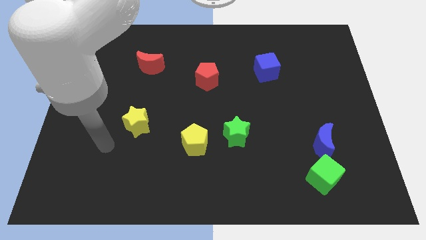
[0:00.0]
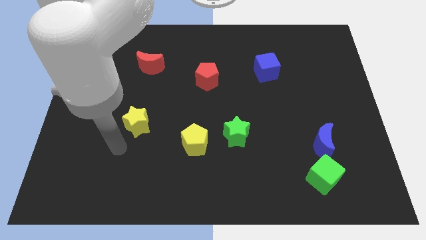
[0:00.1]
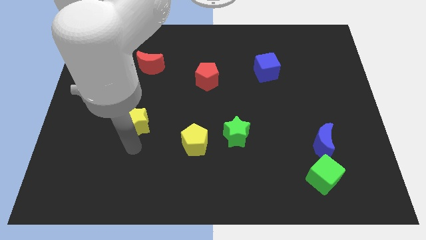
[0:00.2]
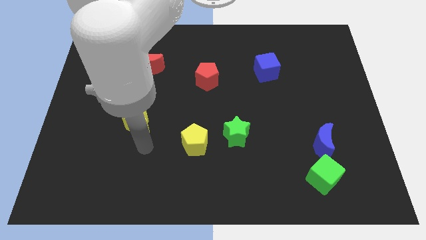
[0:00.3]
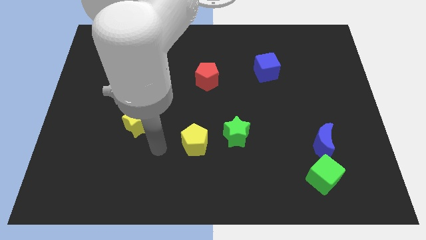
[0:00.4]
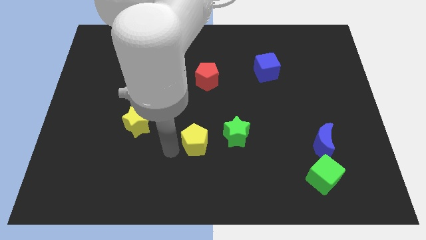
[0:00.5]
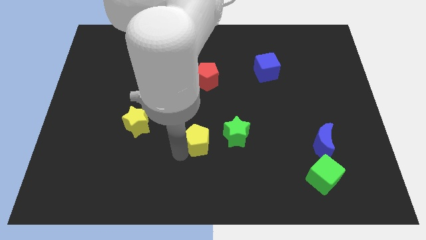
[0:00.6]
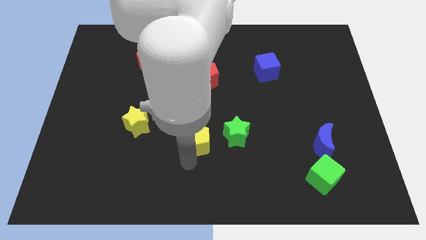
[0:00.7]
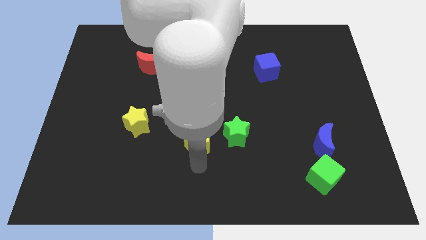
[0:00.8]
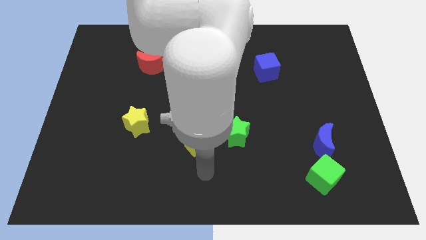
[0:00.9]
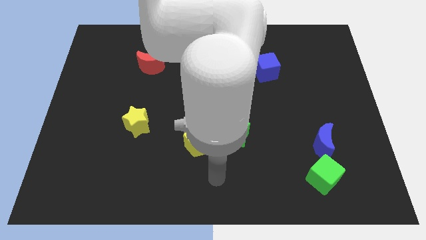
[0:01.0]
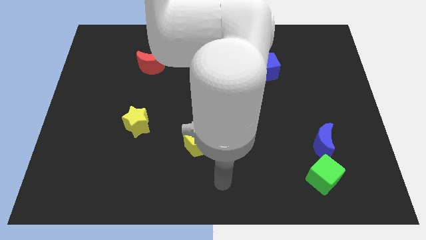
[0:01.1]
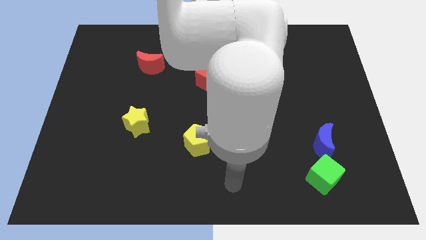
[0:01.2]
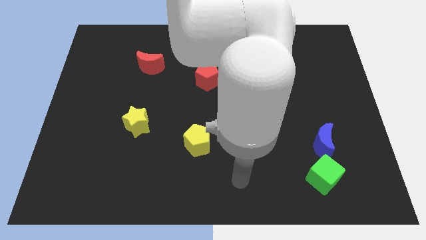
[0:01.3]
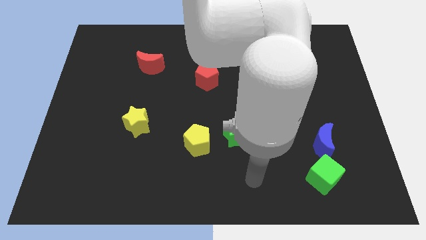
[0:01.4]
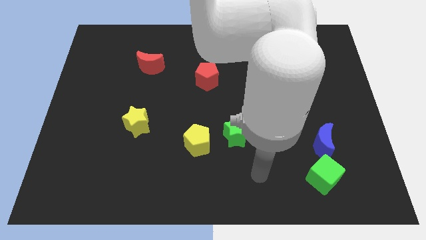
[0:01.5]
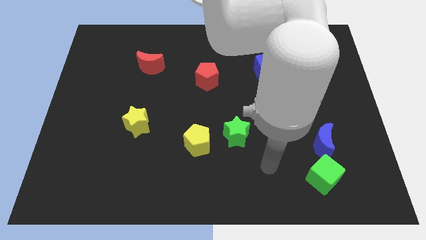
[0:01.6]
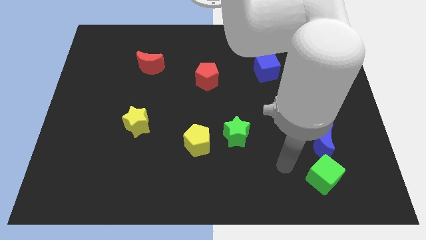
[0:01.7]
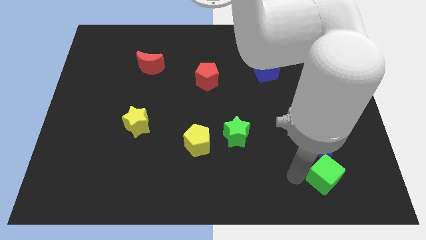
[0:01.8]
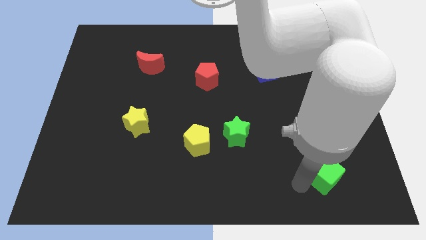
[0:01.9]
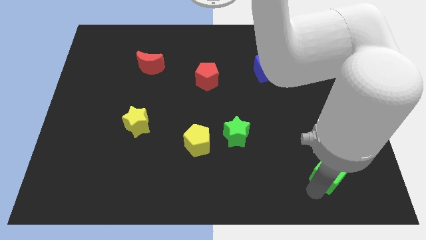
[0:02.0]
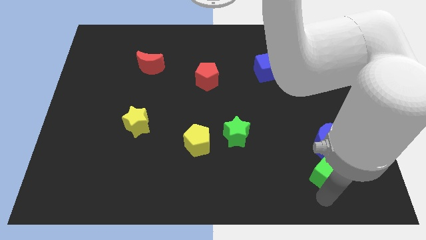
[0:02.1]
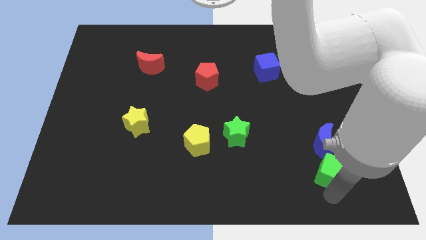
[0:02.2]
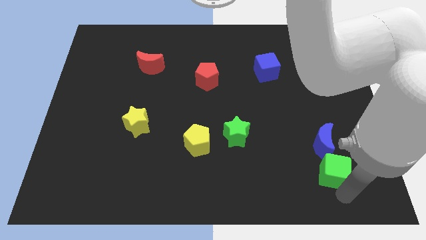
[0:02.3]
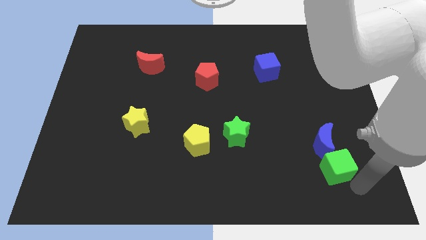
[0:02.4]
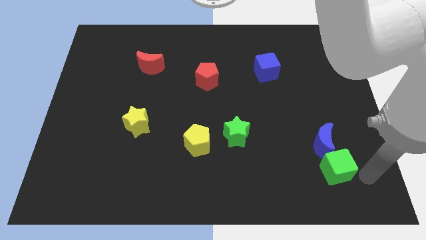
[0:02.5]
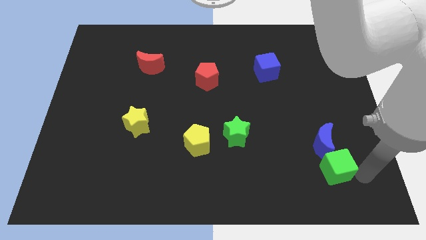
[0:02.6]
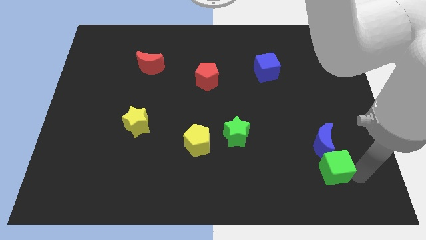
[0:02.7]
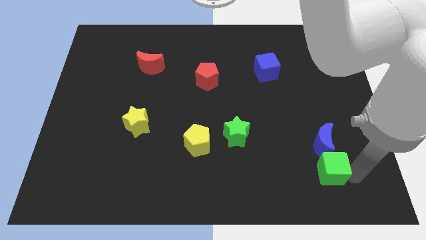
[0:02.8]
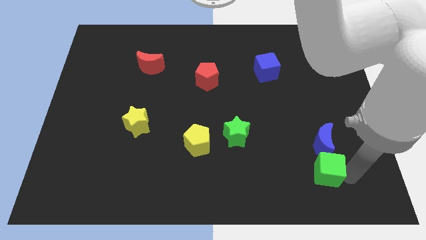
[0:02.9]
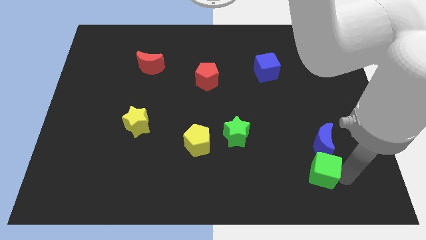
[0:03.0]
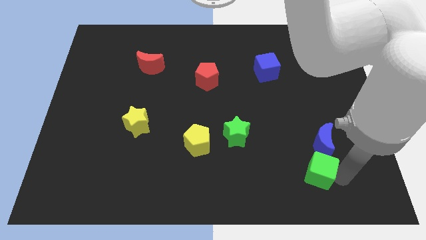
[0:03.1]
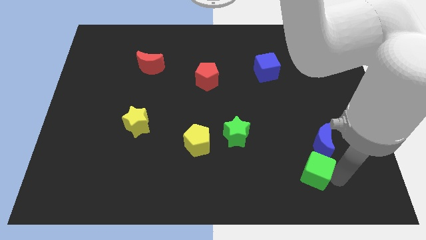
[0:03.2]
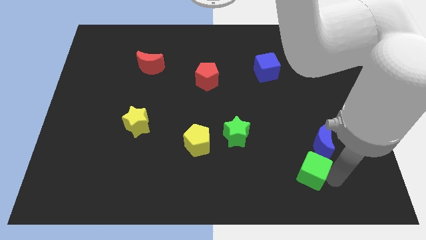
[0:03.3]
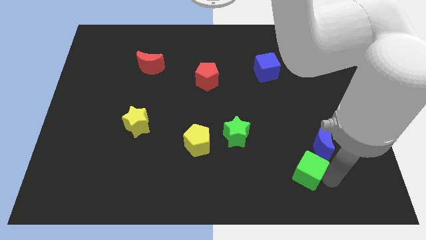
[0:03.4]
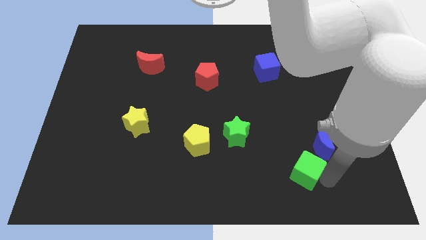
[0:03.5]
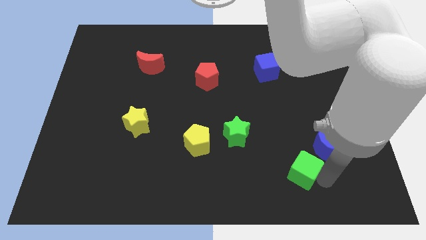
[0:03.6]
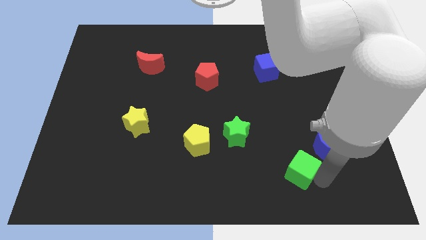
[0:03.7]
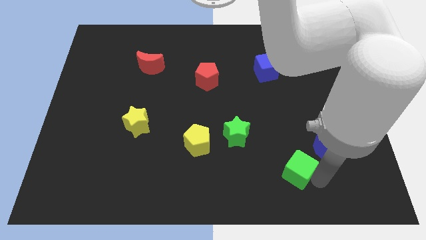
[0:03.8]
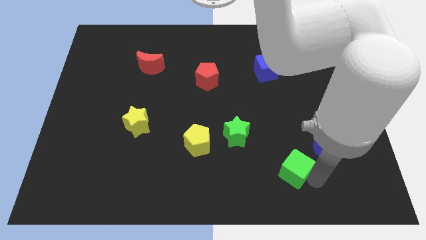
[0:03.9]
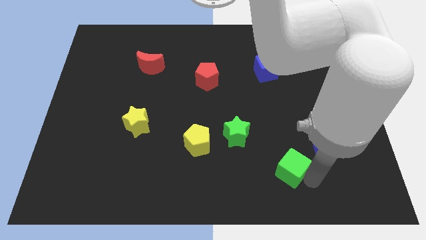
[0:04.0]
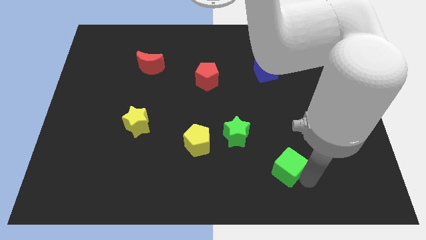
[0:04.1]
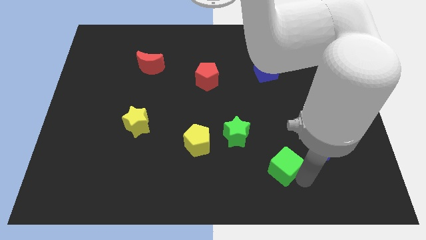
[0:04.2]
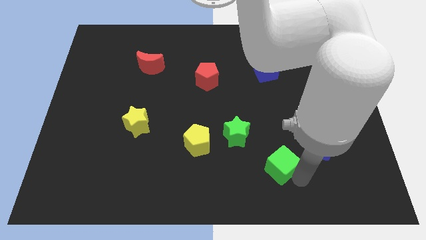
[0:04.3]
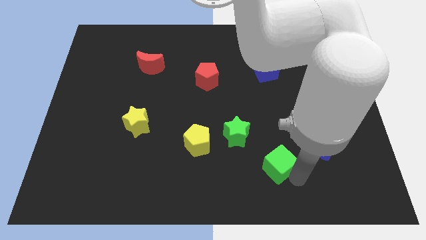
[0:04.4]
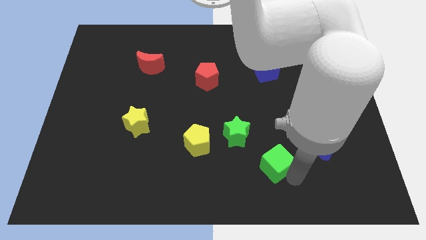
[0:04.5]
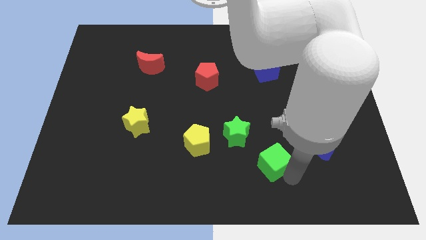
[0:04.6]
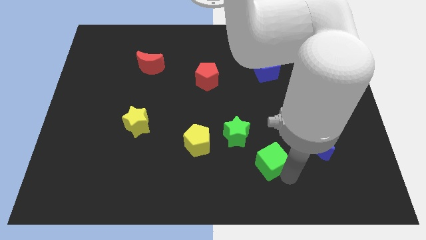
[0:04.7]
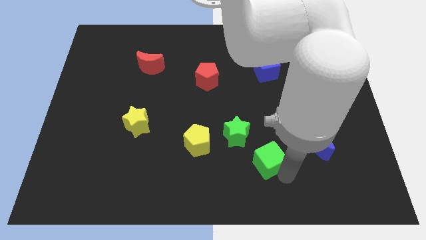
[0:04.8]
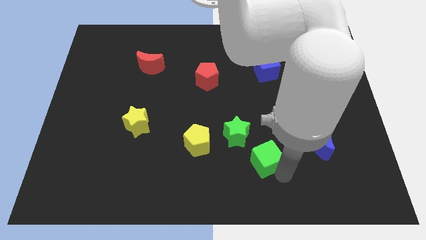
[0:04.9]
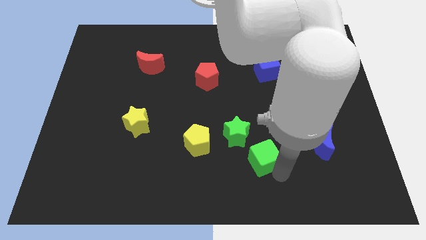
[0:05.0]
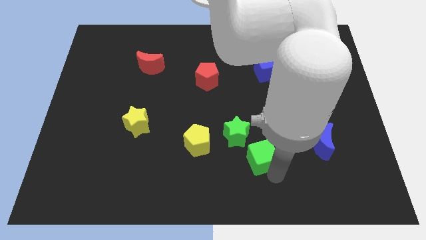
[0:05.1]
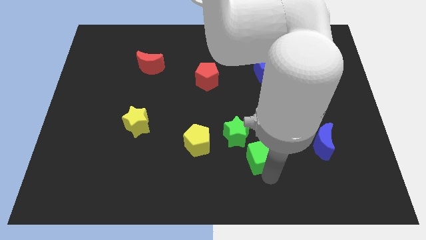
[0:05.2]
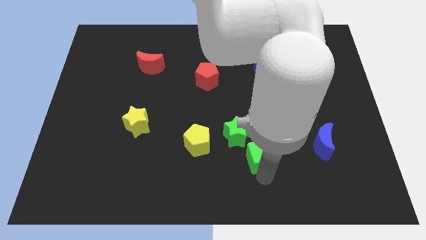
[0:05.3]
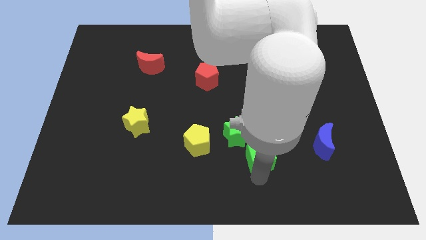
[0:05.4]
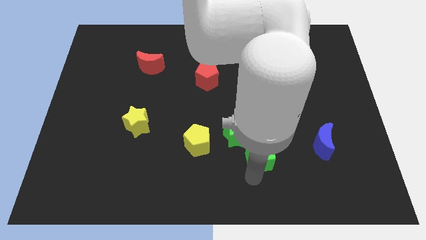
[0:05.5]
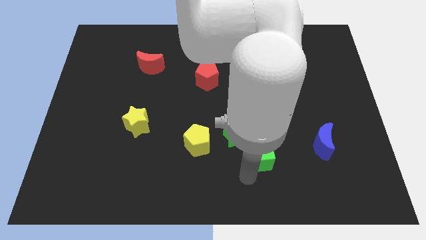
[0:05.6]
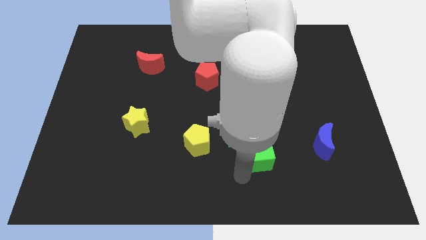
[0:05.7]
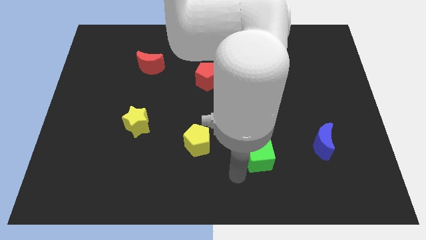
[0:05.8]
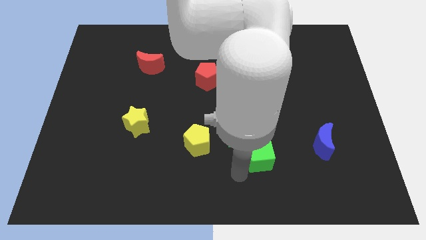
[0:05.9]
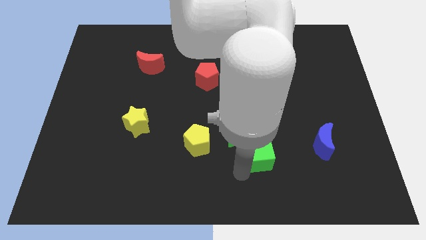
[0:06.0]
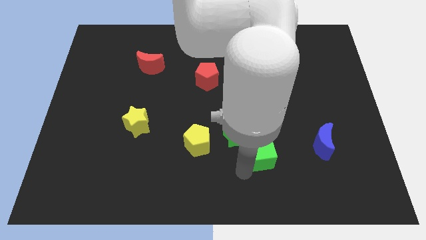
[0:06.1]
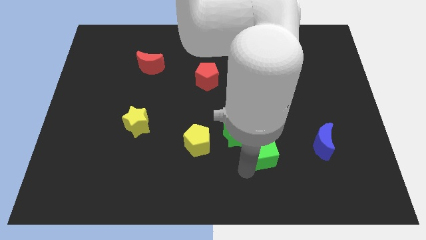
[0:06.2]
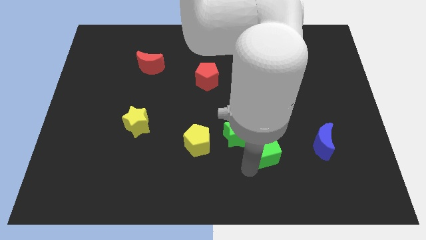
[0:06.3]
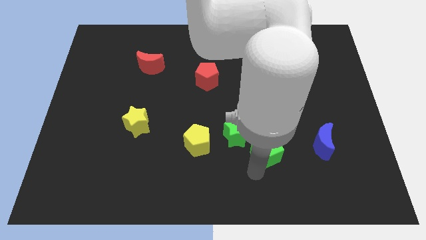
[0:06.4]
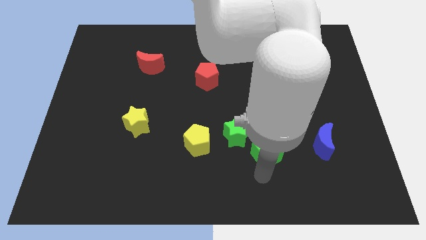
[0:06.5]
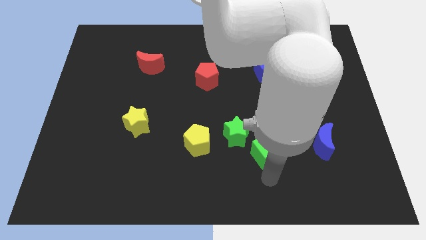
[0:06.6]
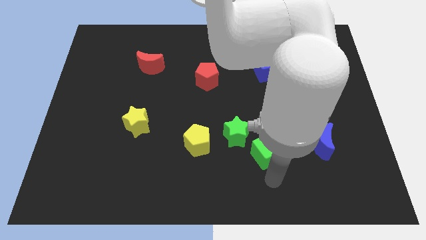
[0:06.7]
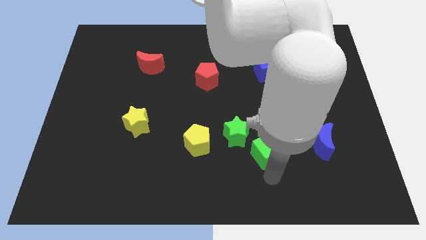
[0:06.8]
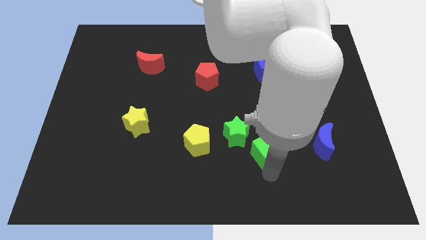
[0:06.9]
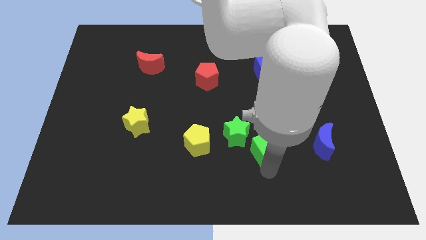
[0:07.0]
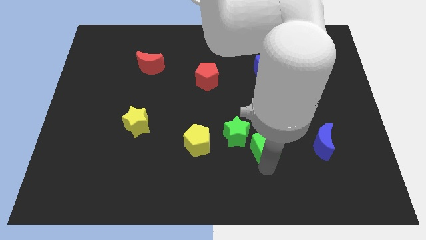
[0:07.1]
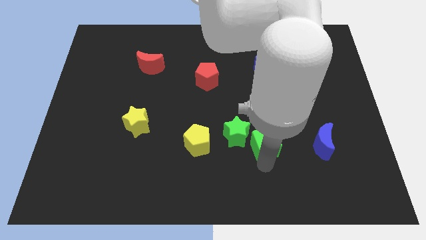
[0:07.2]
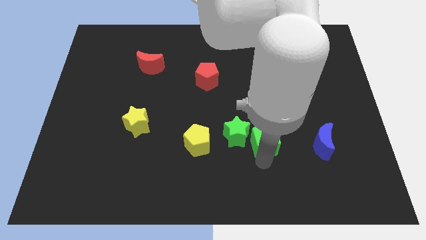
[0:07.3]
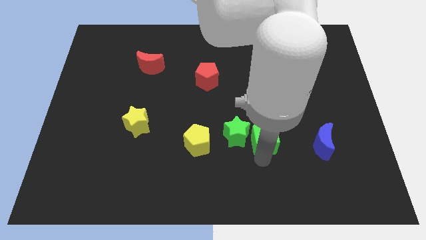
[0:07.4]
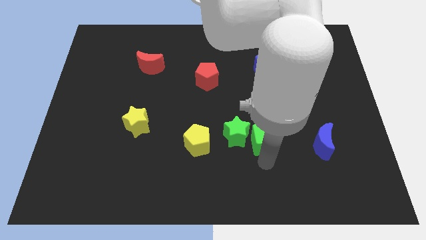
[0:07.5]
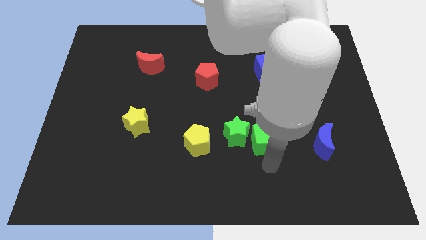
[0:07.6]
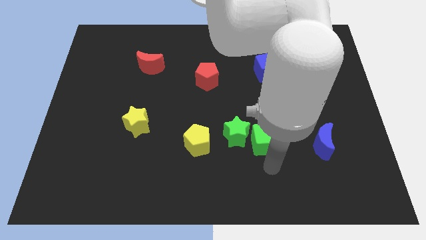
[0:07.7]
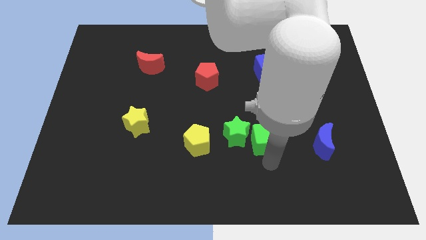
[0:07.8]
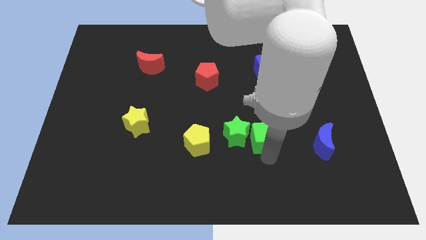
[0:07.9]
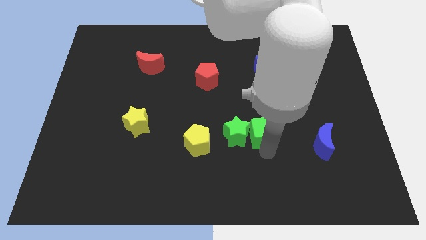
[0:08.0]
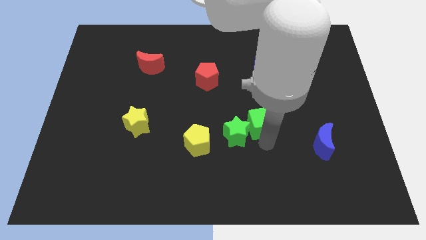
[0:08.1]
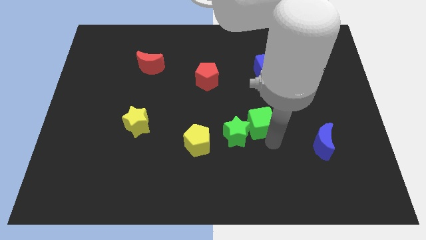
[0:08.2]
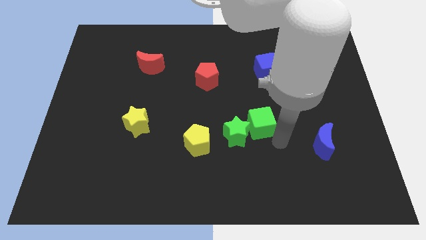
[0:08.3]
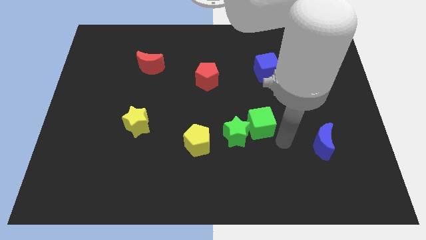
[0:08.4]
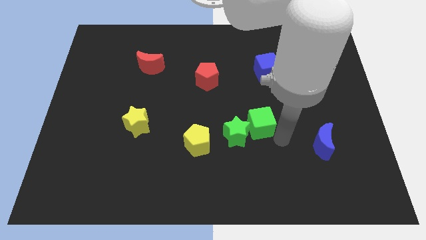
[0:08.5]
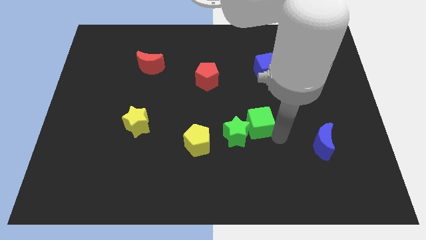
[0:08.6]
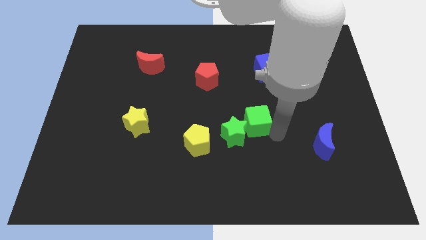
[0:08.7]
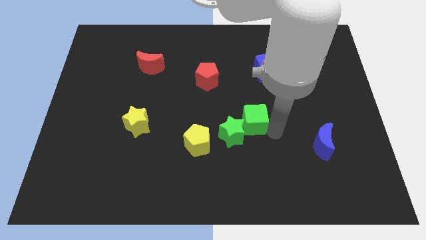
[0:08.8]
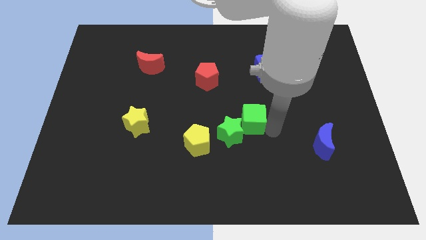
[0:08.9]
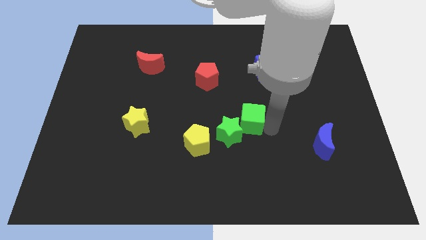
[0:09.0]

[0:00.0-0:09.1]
move the green cube upwards and to the left diagonally
